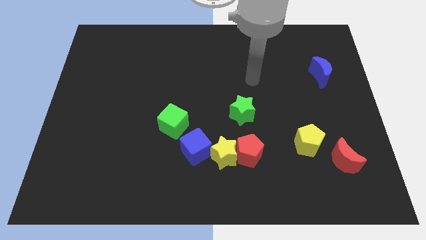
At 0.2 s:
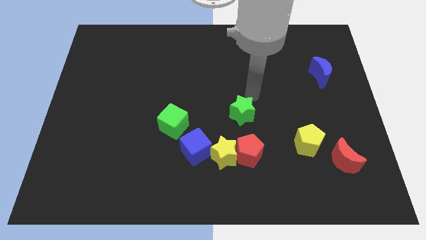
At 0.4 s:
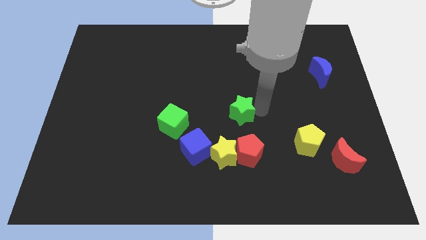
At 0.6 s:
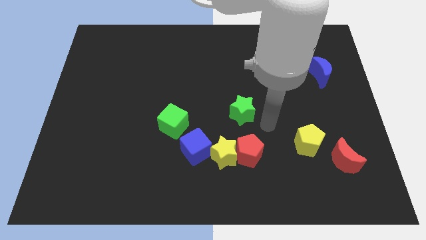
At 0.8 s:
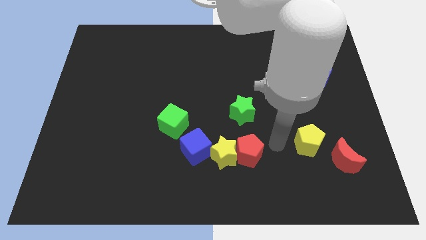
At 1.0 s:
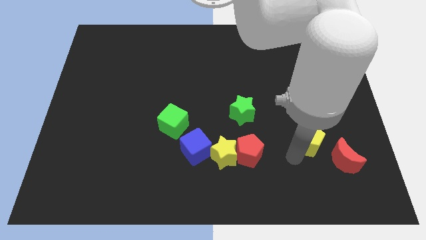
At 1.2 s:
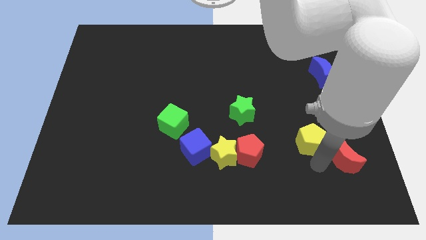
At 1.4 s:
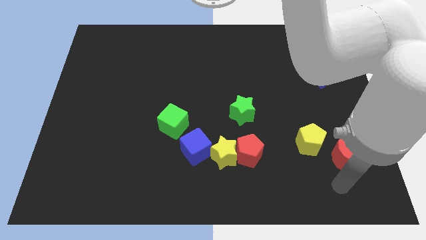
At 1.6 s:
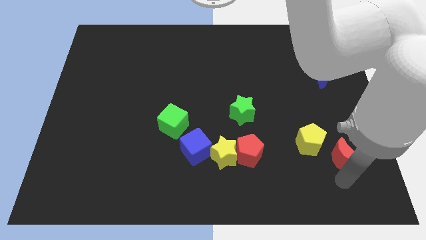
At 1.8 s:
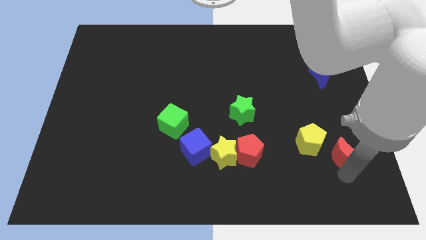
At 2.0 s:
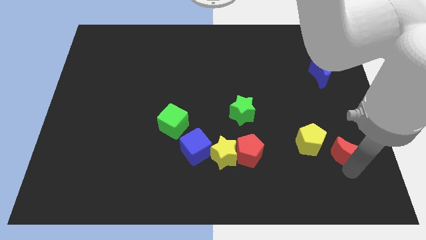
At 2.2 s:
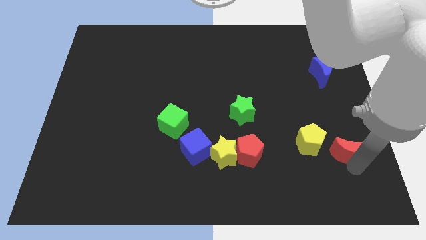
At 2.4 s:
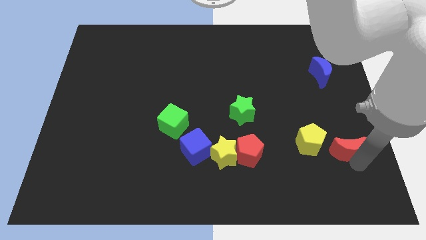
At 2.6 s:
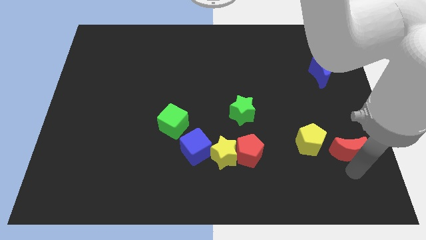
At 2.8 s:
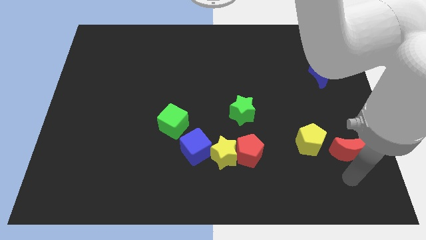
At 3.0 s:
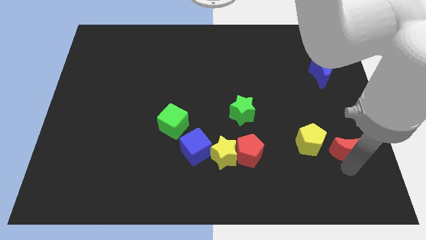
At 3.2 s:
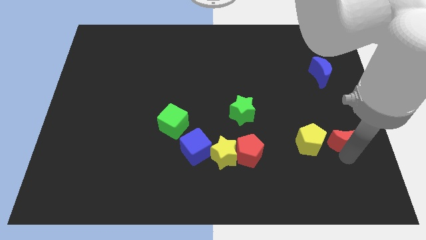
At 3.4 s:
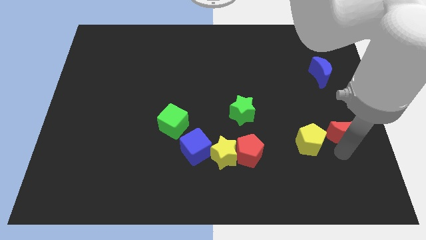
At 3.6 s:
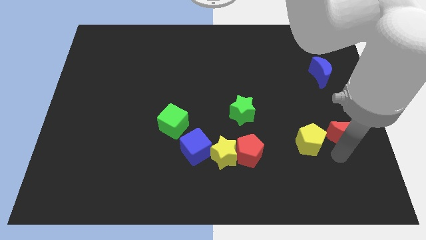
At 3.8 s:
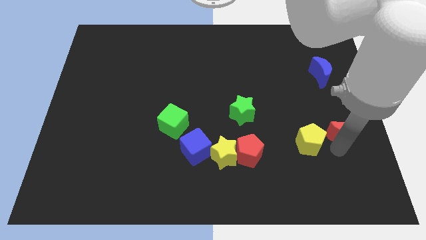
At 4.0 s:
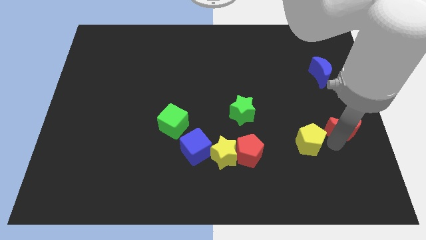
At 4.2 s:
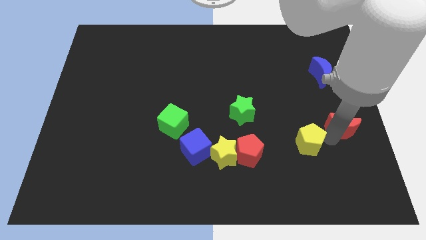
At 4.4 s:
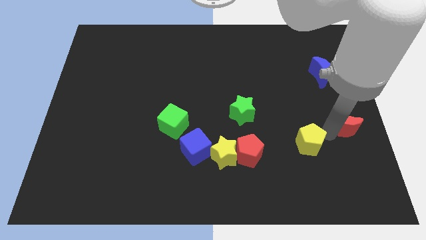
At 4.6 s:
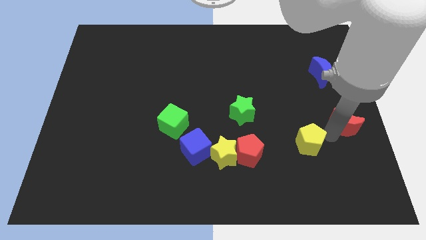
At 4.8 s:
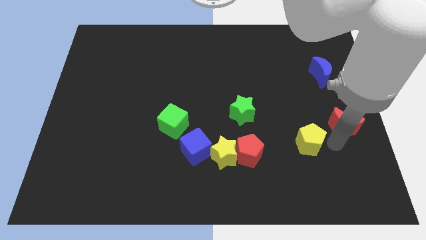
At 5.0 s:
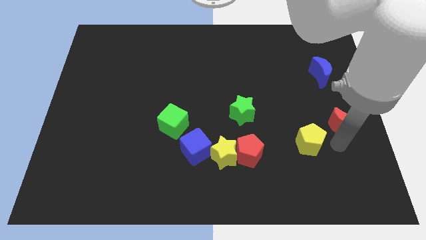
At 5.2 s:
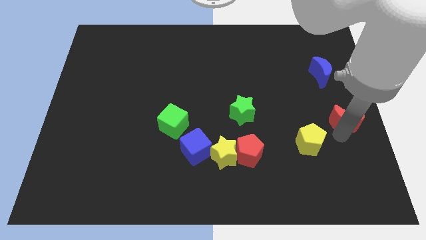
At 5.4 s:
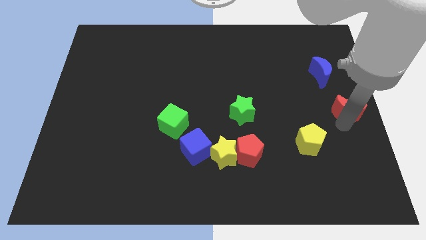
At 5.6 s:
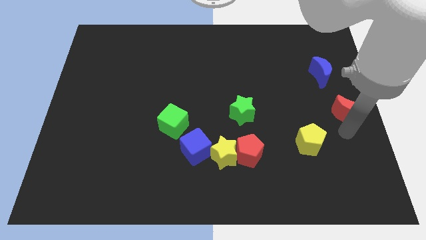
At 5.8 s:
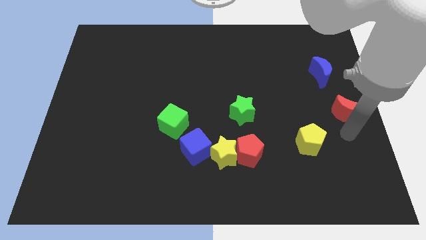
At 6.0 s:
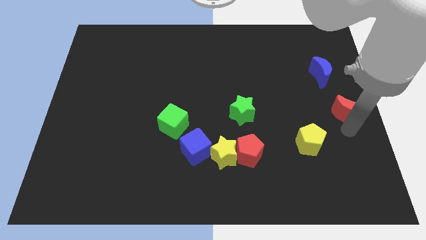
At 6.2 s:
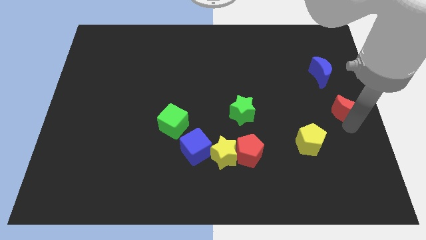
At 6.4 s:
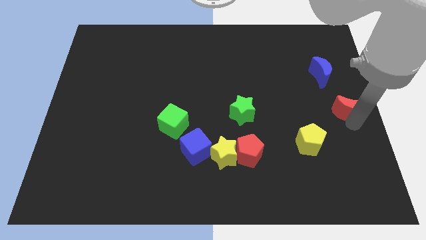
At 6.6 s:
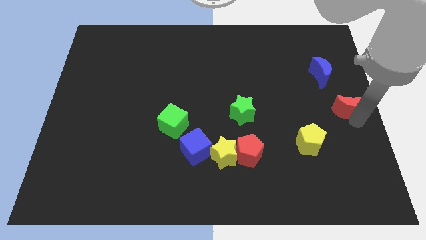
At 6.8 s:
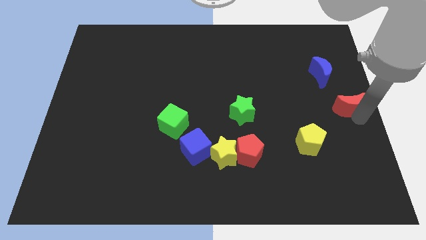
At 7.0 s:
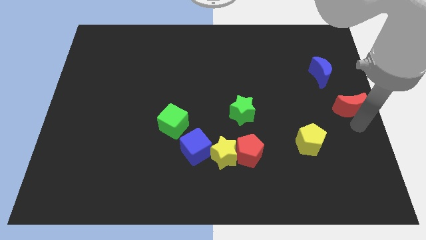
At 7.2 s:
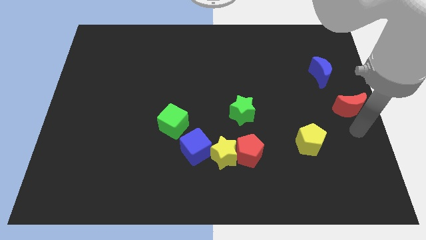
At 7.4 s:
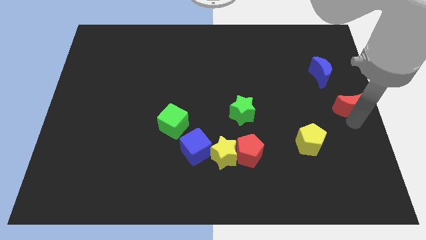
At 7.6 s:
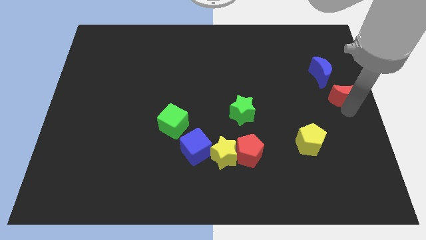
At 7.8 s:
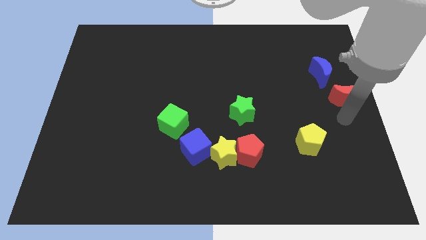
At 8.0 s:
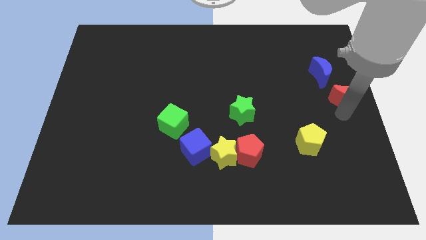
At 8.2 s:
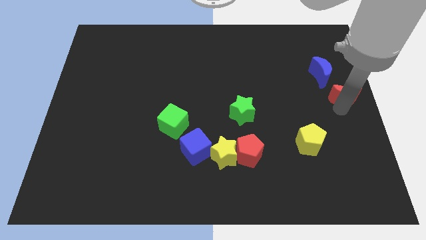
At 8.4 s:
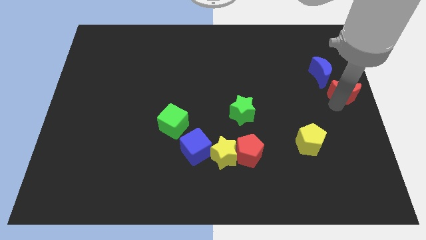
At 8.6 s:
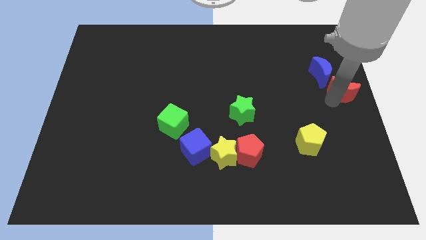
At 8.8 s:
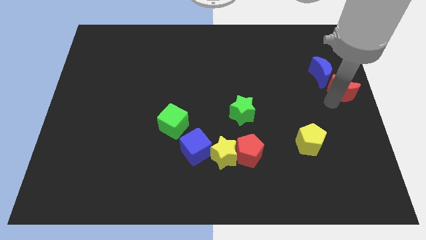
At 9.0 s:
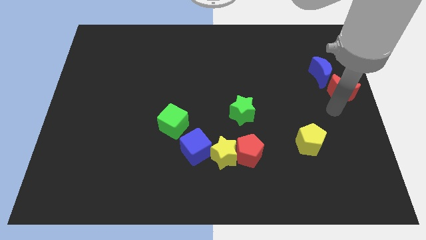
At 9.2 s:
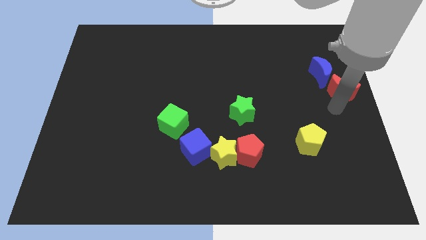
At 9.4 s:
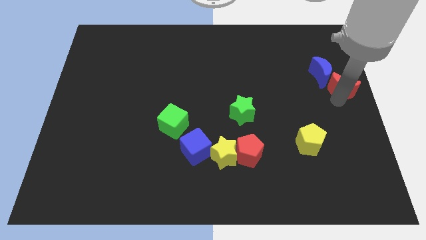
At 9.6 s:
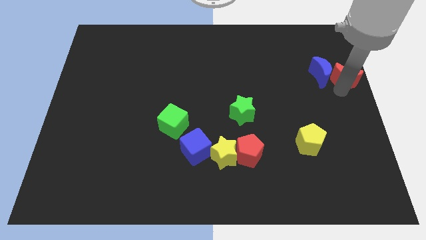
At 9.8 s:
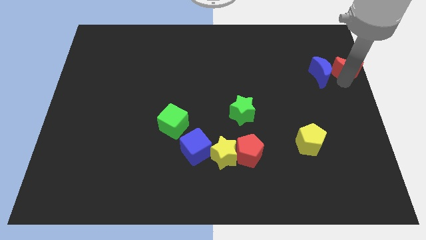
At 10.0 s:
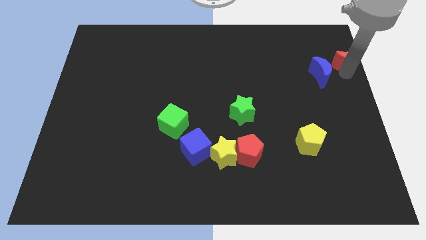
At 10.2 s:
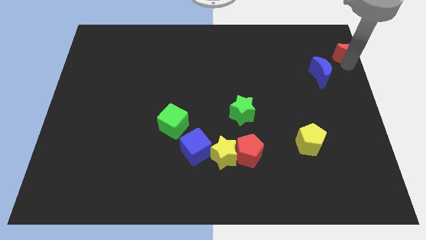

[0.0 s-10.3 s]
push the red moon to the top right of the board

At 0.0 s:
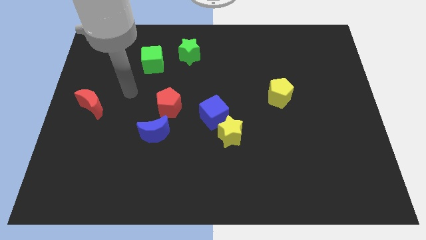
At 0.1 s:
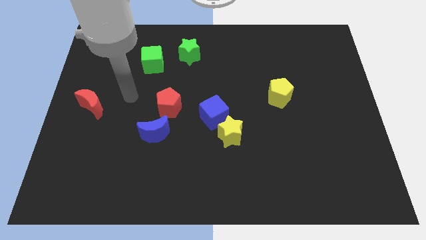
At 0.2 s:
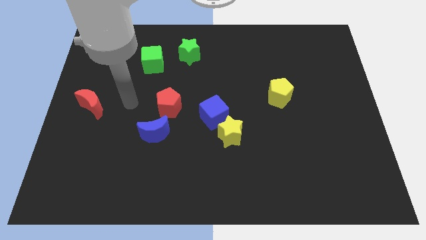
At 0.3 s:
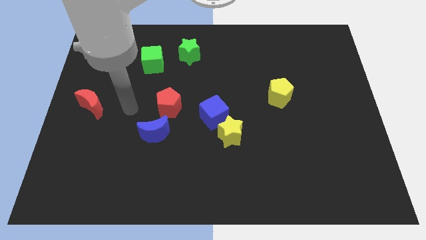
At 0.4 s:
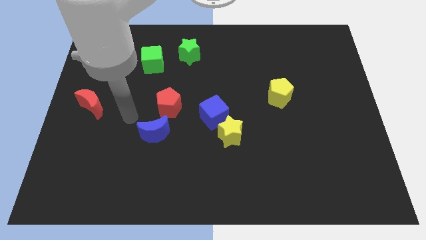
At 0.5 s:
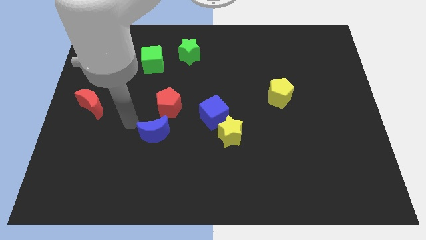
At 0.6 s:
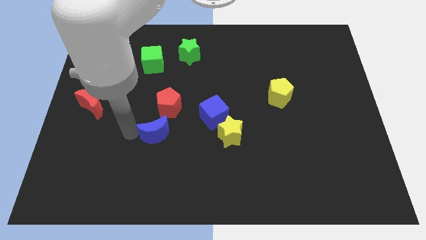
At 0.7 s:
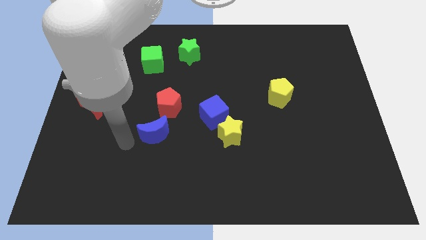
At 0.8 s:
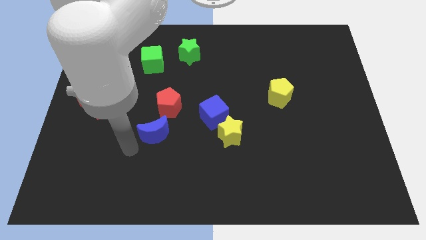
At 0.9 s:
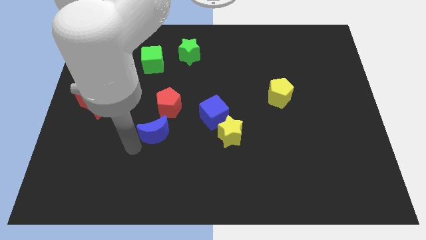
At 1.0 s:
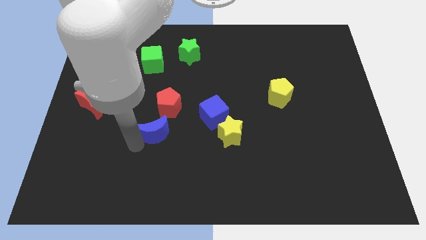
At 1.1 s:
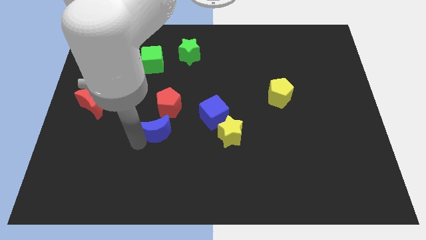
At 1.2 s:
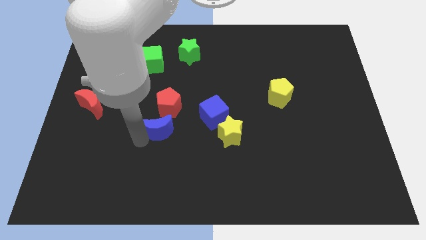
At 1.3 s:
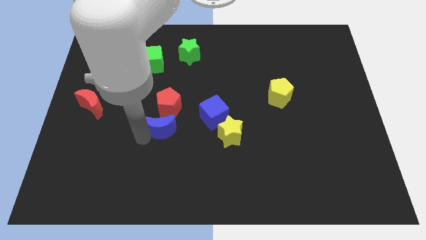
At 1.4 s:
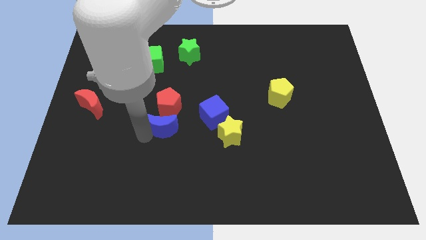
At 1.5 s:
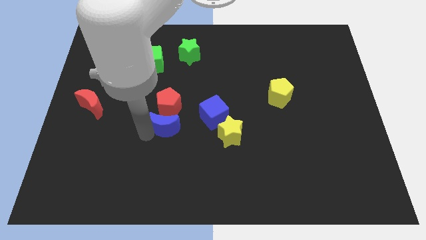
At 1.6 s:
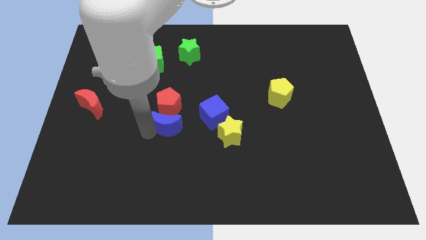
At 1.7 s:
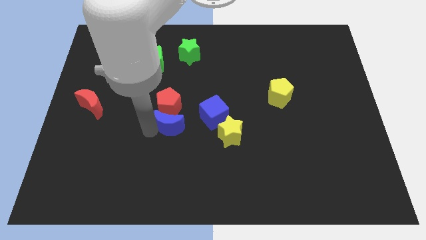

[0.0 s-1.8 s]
move the blue moon to the center
